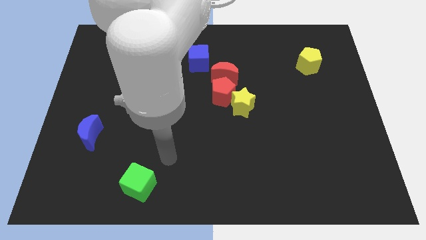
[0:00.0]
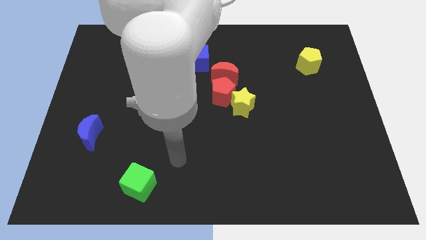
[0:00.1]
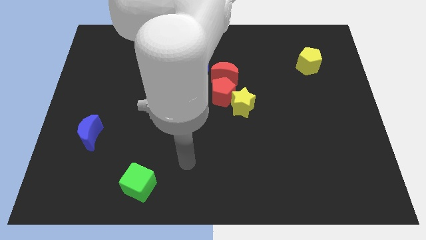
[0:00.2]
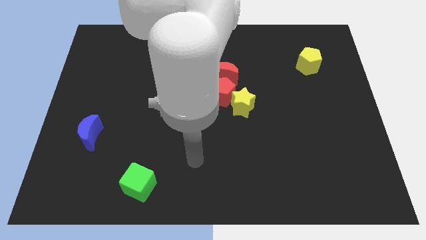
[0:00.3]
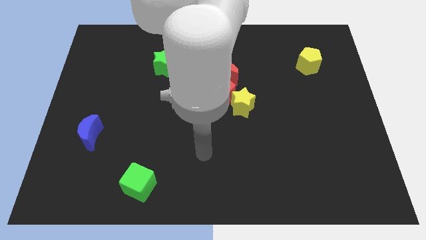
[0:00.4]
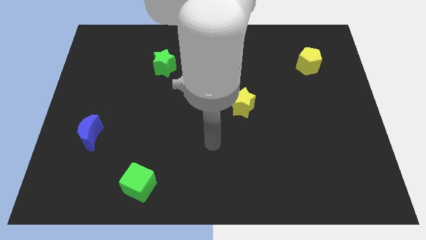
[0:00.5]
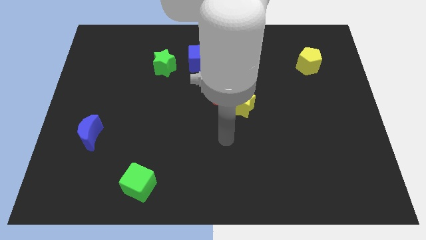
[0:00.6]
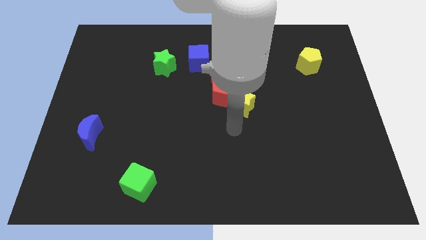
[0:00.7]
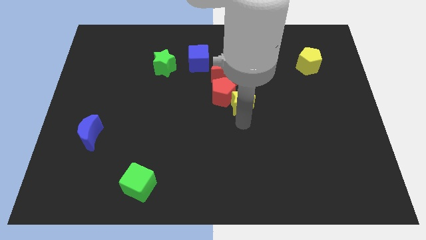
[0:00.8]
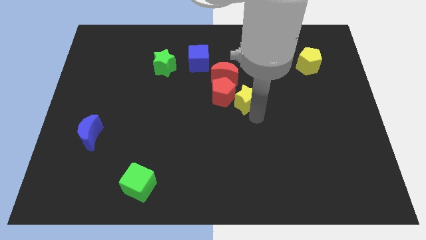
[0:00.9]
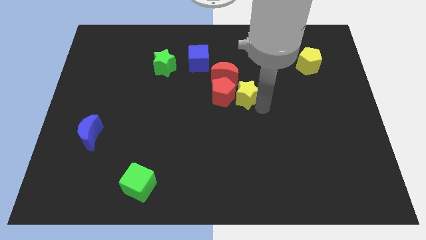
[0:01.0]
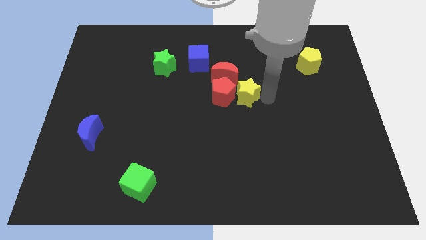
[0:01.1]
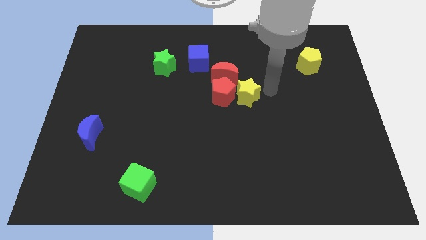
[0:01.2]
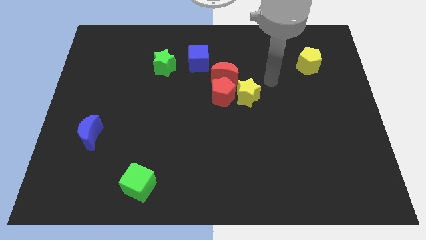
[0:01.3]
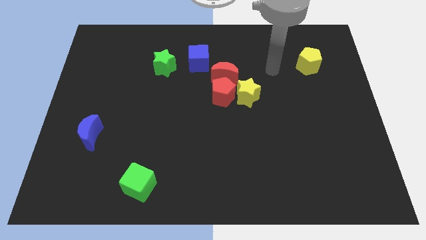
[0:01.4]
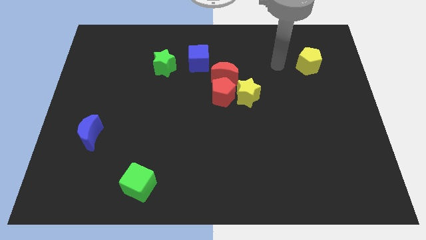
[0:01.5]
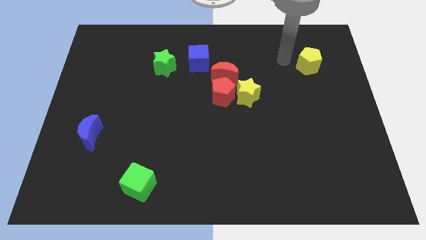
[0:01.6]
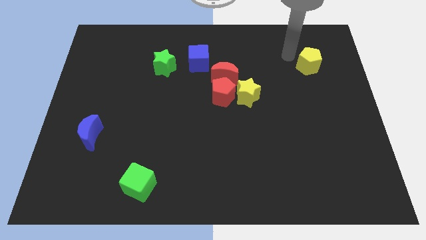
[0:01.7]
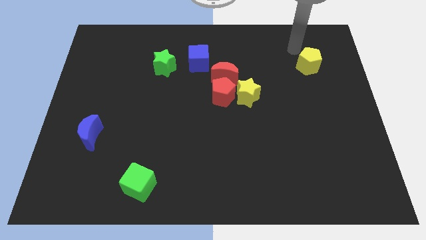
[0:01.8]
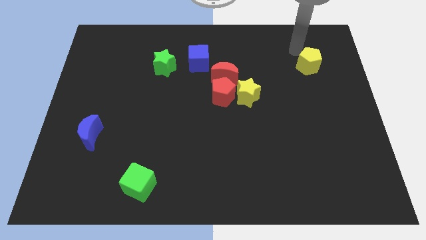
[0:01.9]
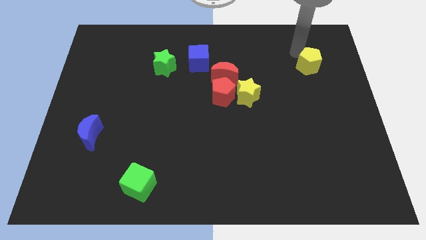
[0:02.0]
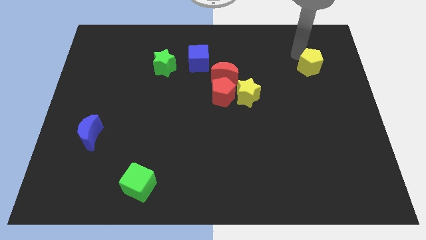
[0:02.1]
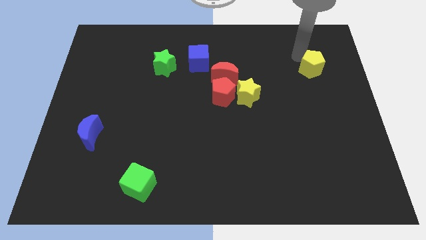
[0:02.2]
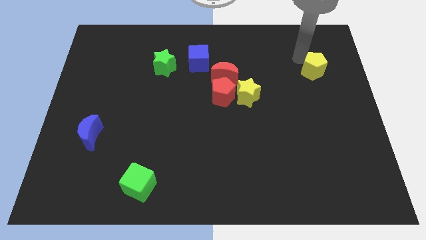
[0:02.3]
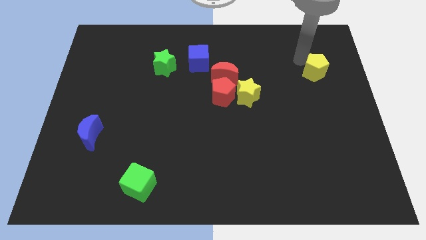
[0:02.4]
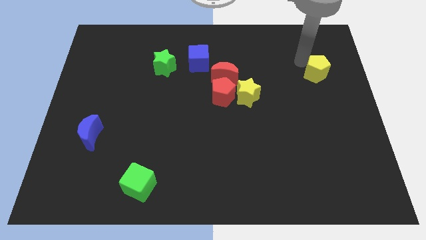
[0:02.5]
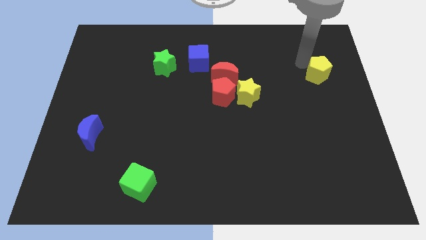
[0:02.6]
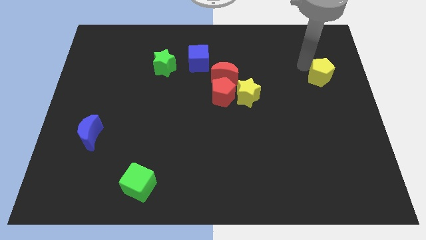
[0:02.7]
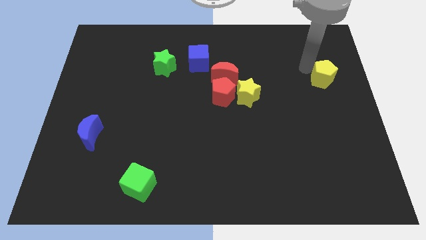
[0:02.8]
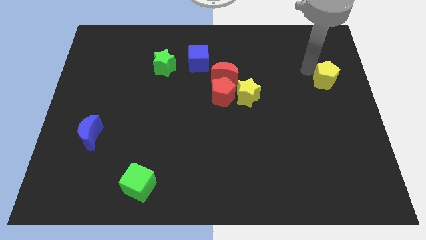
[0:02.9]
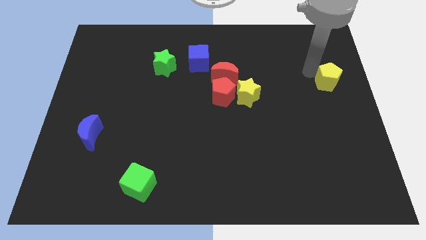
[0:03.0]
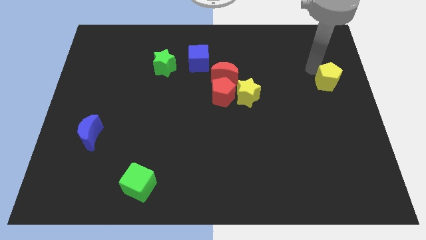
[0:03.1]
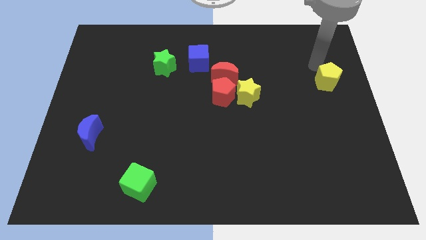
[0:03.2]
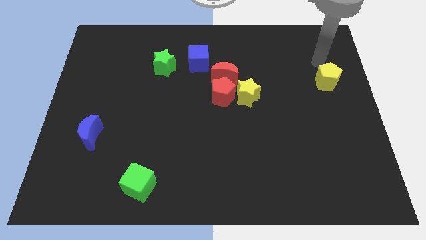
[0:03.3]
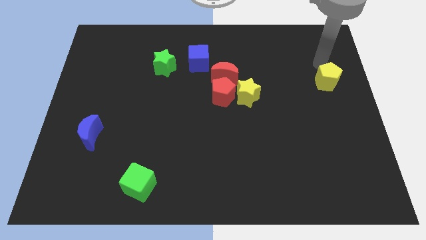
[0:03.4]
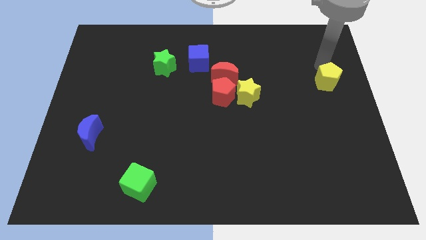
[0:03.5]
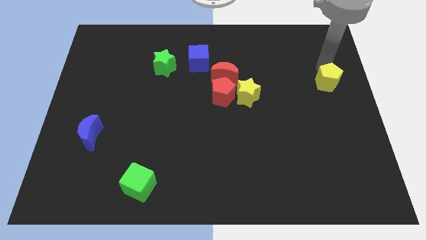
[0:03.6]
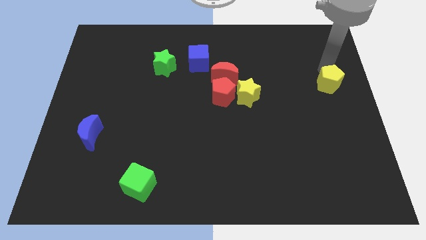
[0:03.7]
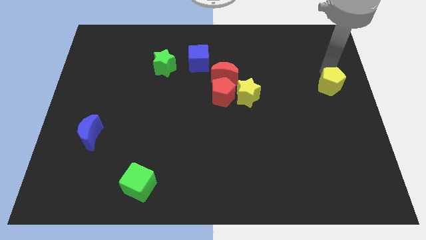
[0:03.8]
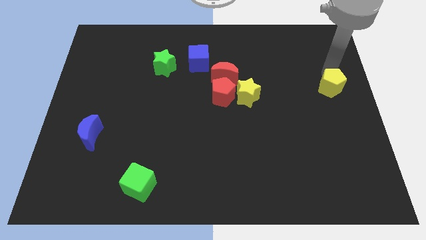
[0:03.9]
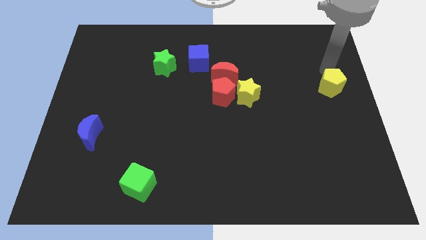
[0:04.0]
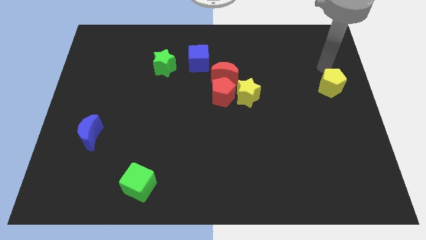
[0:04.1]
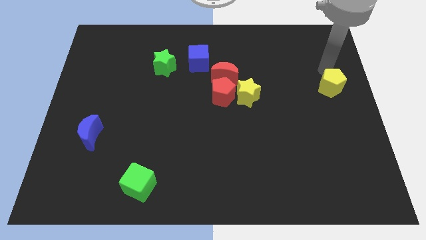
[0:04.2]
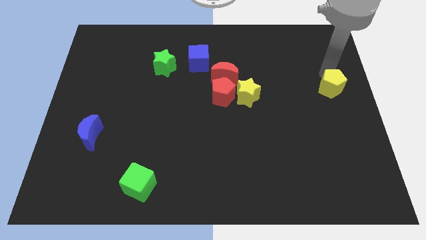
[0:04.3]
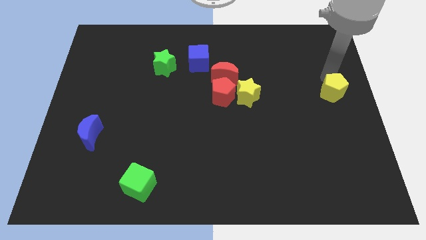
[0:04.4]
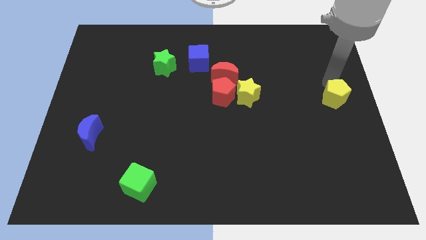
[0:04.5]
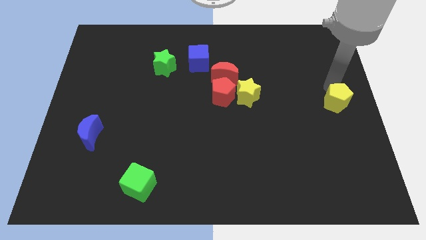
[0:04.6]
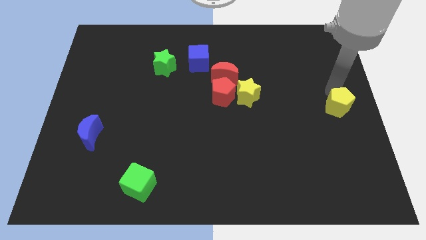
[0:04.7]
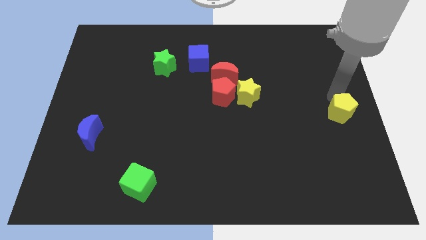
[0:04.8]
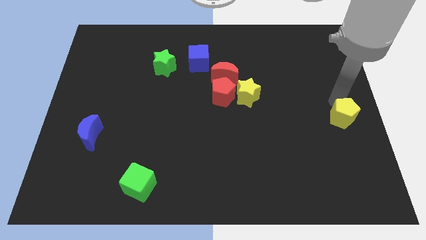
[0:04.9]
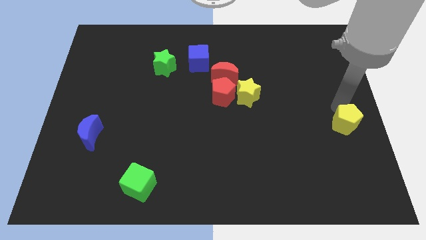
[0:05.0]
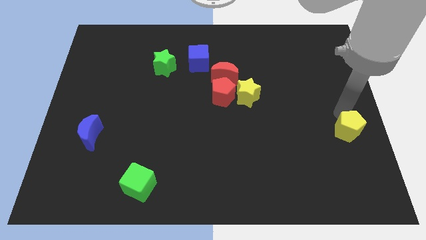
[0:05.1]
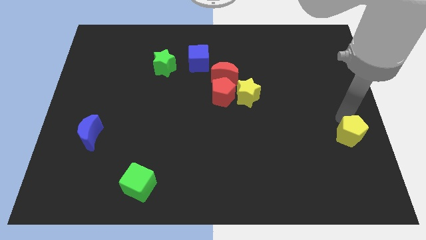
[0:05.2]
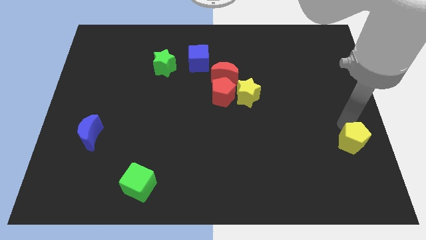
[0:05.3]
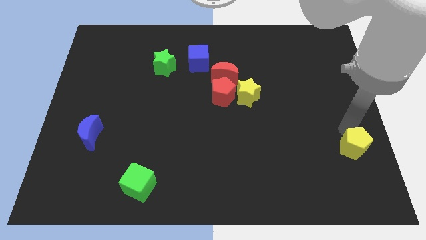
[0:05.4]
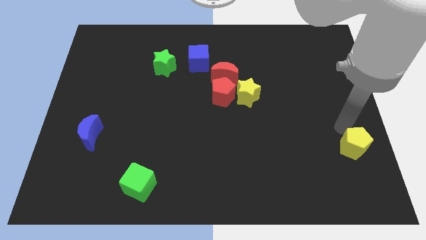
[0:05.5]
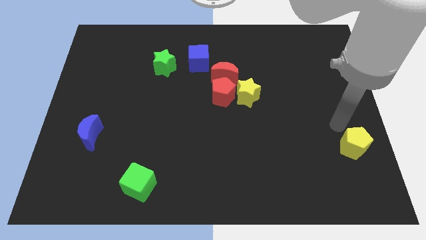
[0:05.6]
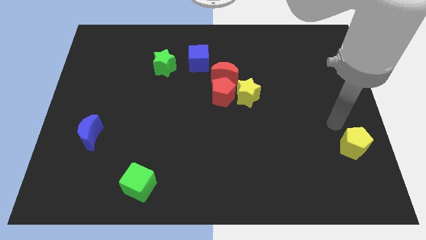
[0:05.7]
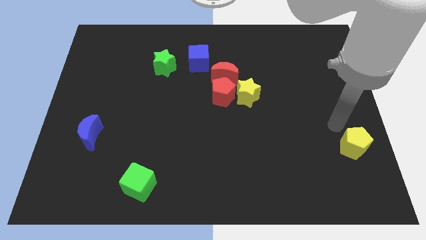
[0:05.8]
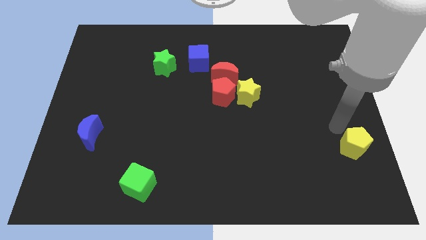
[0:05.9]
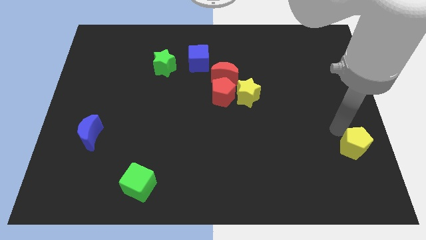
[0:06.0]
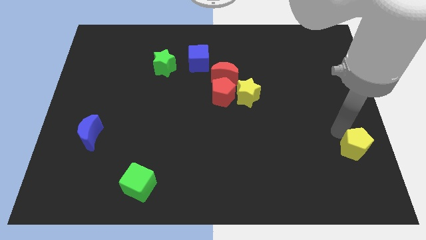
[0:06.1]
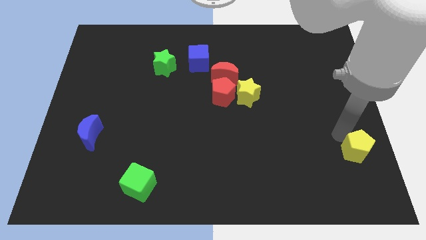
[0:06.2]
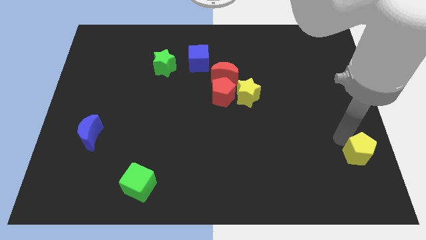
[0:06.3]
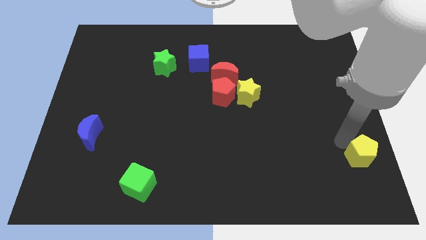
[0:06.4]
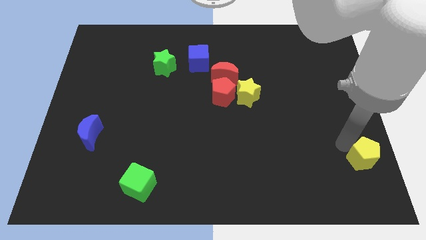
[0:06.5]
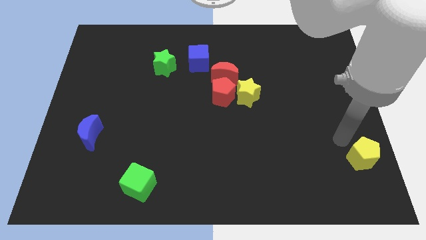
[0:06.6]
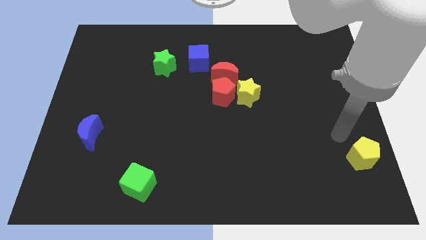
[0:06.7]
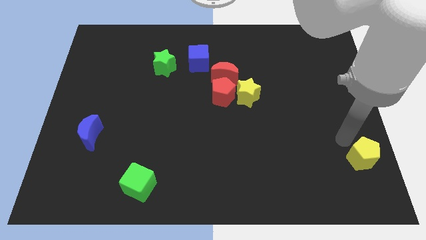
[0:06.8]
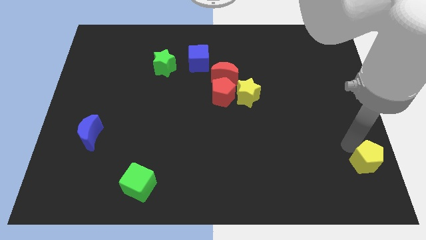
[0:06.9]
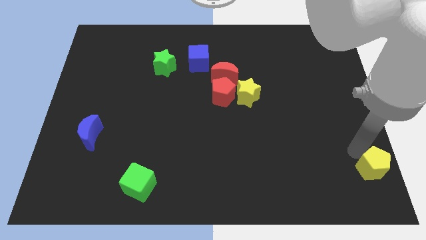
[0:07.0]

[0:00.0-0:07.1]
slide the yellow pentagon to the lower right corner
